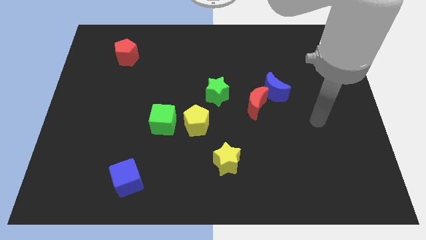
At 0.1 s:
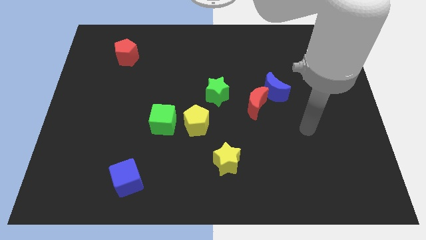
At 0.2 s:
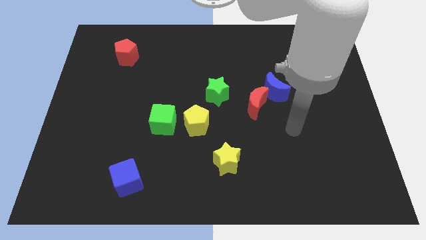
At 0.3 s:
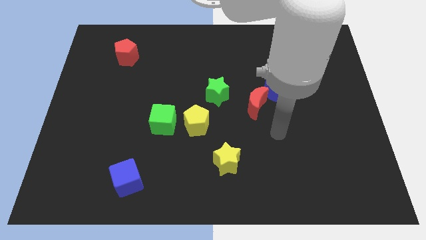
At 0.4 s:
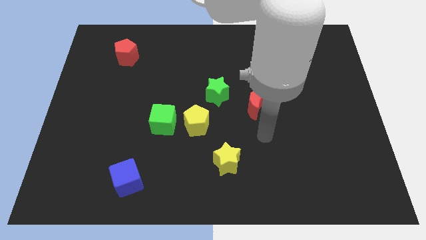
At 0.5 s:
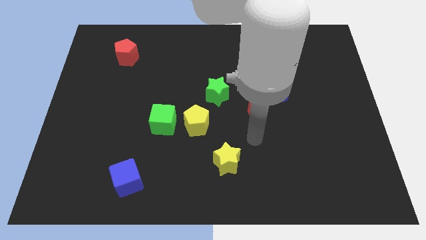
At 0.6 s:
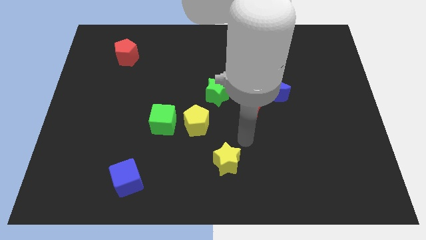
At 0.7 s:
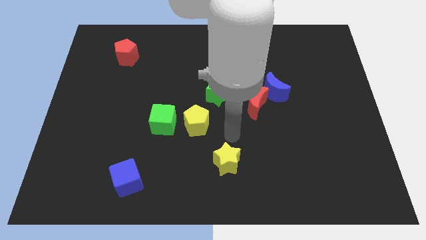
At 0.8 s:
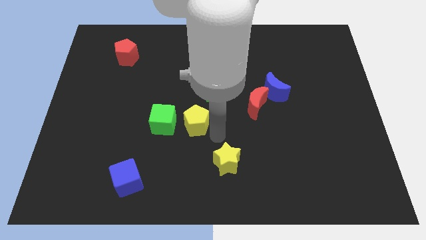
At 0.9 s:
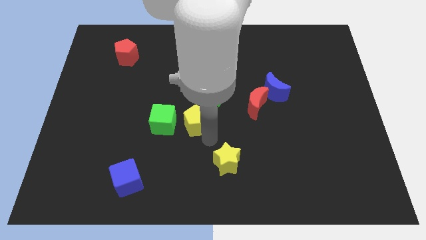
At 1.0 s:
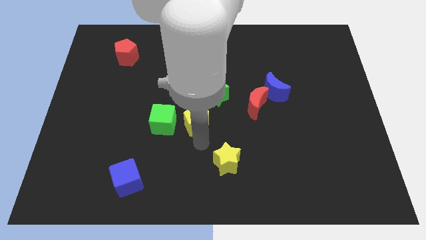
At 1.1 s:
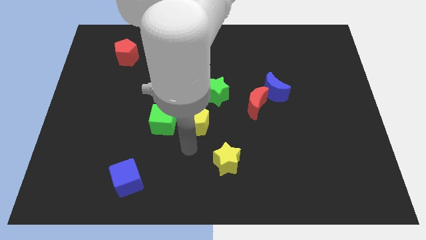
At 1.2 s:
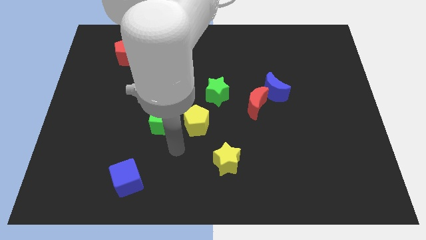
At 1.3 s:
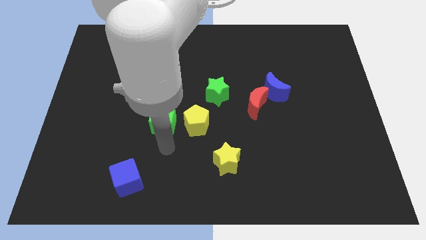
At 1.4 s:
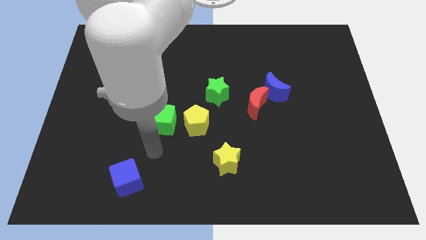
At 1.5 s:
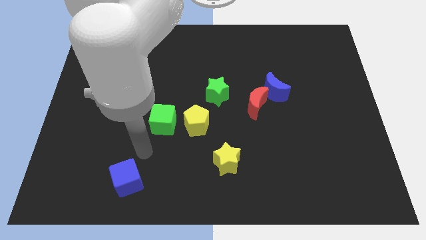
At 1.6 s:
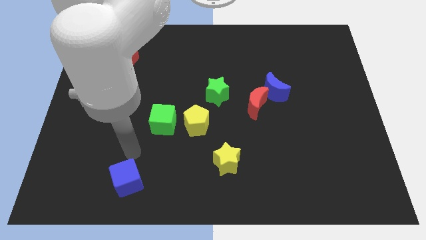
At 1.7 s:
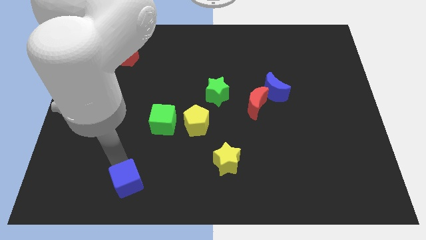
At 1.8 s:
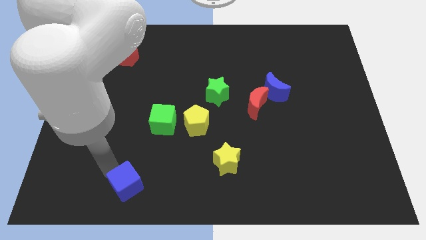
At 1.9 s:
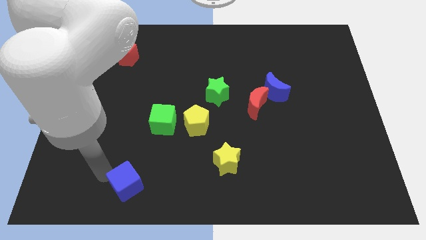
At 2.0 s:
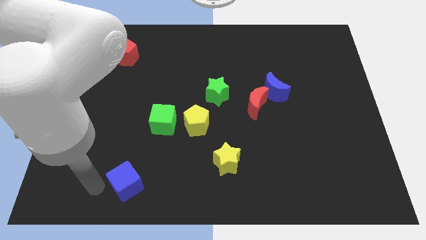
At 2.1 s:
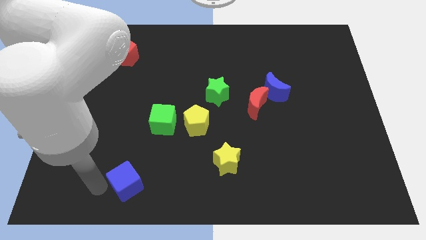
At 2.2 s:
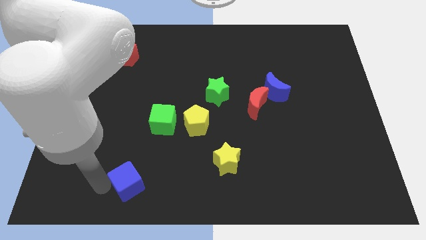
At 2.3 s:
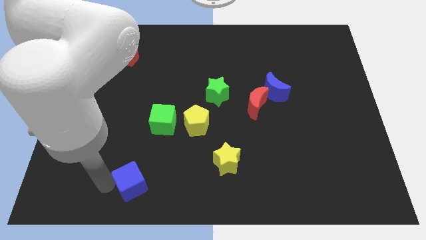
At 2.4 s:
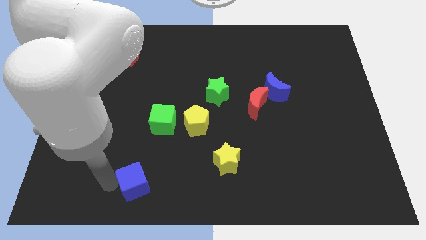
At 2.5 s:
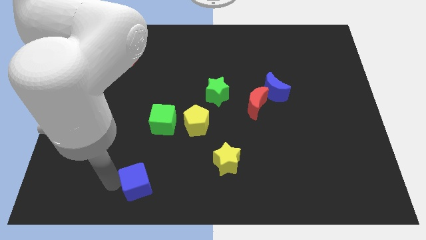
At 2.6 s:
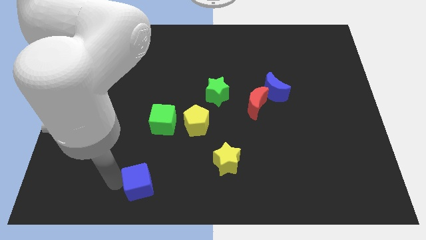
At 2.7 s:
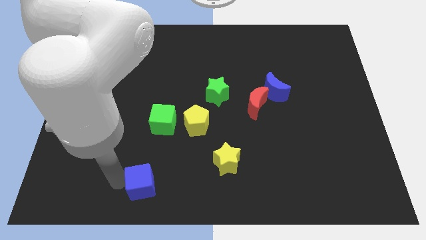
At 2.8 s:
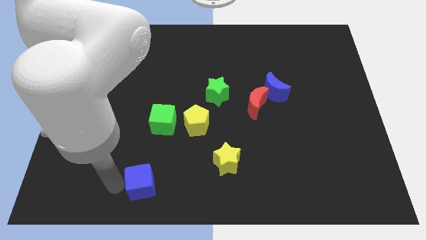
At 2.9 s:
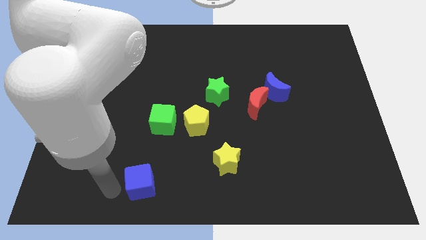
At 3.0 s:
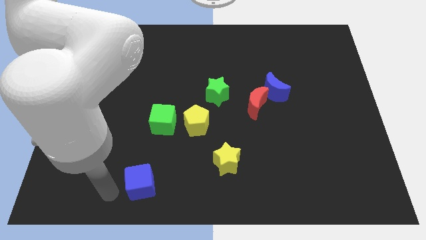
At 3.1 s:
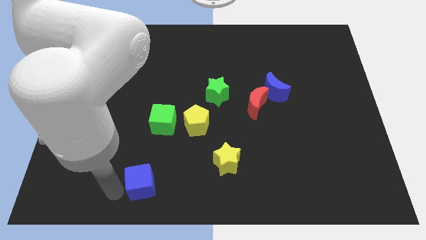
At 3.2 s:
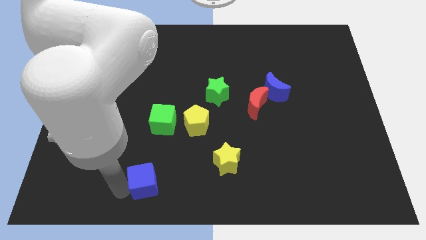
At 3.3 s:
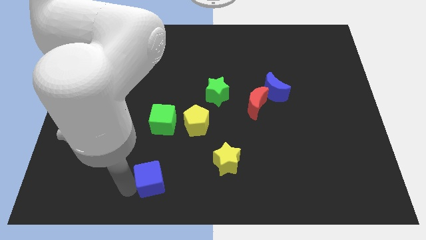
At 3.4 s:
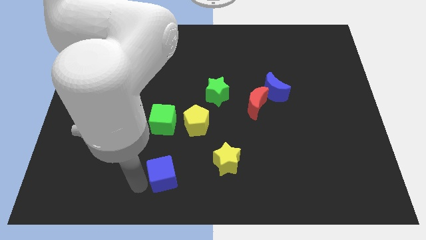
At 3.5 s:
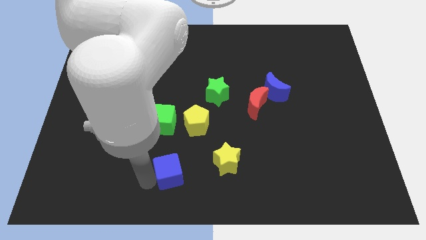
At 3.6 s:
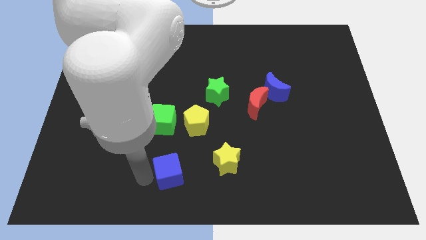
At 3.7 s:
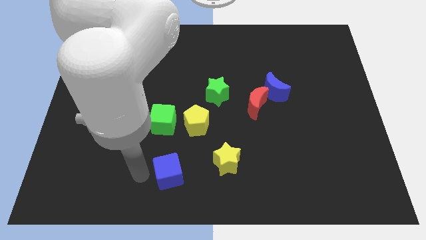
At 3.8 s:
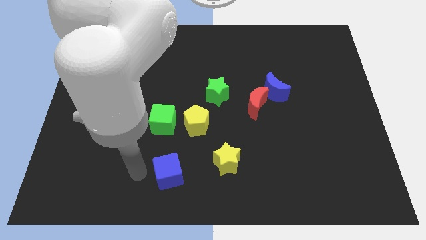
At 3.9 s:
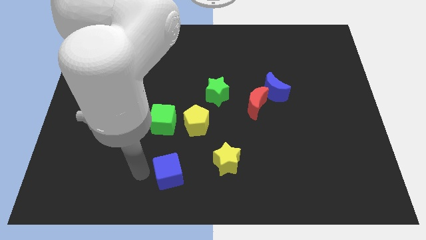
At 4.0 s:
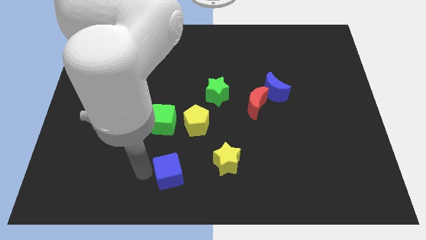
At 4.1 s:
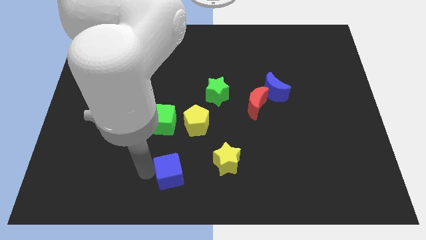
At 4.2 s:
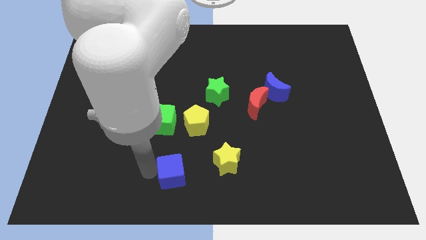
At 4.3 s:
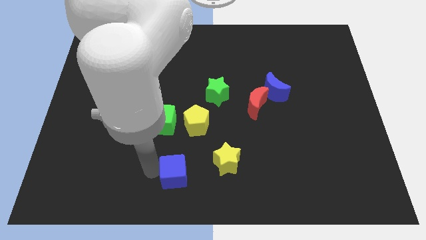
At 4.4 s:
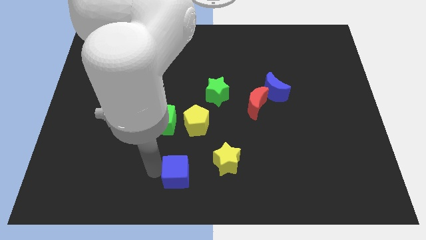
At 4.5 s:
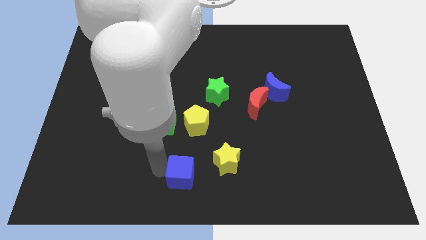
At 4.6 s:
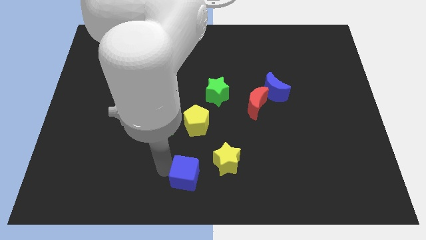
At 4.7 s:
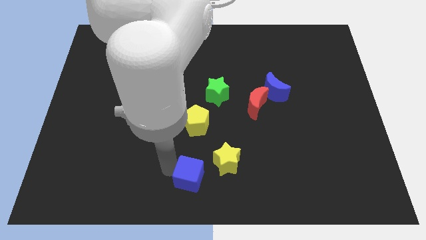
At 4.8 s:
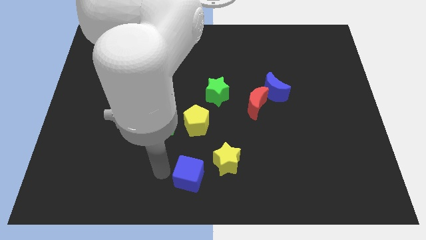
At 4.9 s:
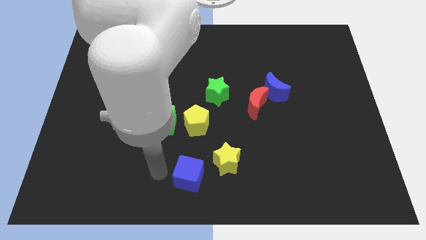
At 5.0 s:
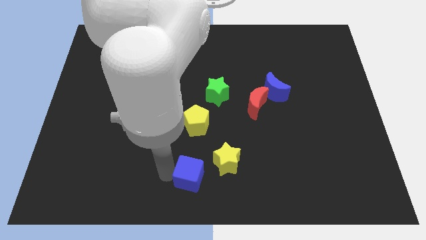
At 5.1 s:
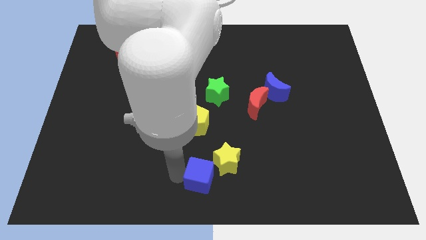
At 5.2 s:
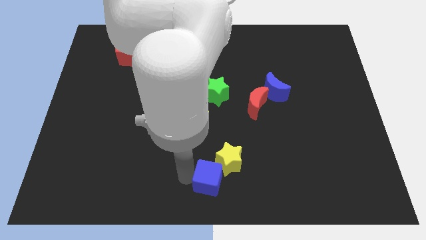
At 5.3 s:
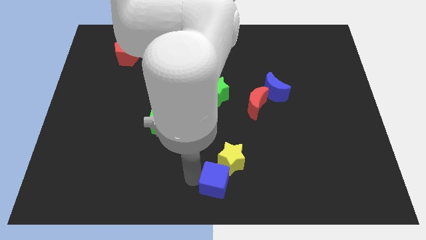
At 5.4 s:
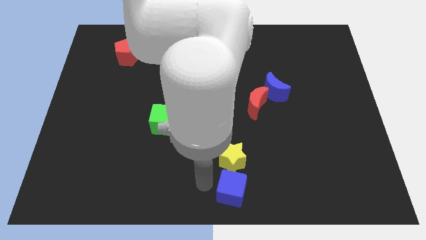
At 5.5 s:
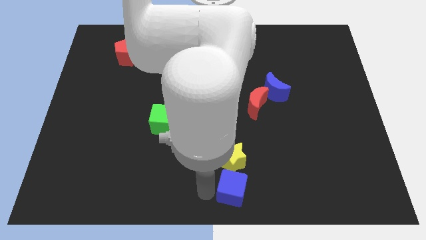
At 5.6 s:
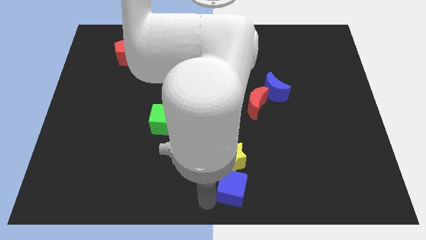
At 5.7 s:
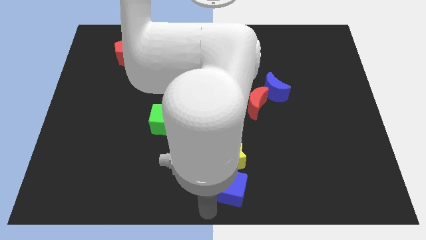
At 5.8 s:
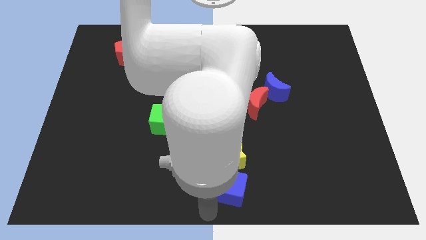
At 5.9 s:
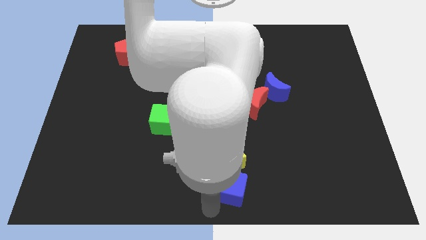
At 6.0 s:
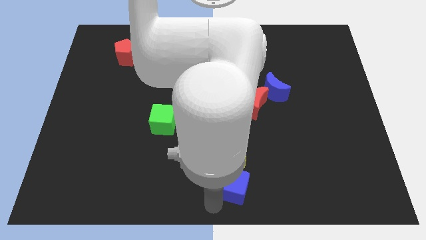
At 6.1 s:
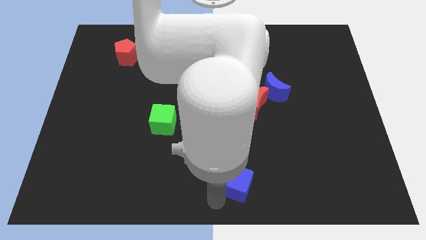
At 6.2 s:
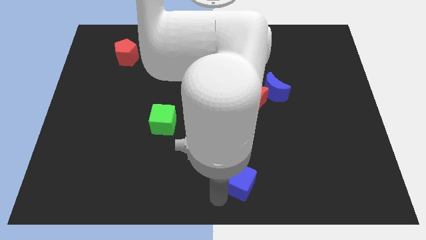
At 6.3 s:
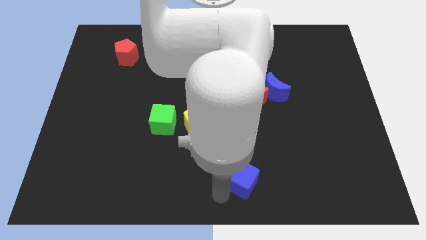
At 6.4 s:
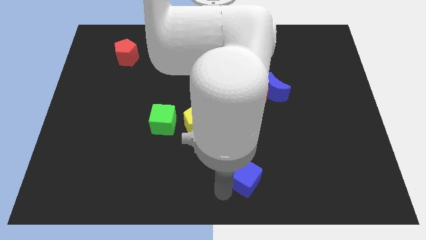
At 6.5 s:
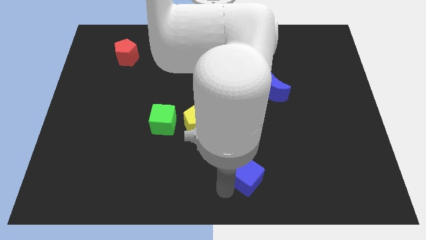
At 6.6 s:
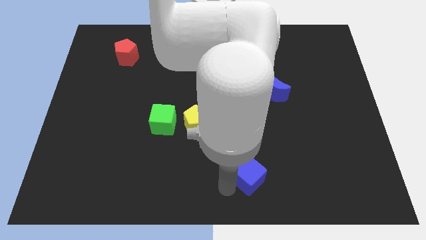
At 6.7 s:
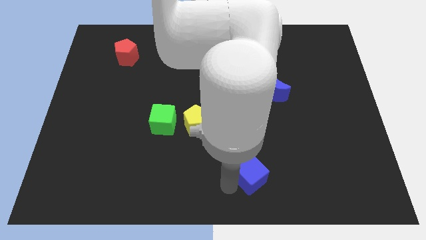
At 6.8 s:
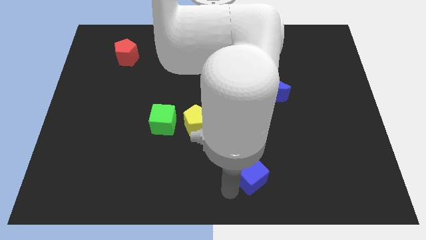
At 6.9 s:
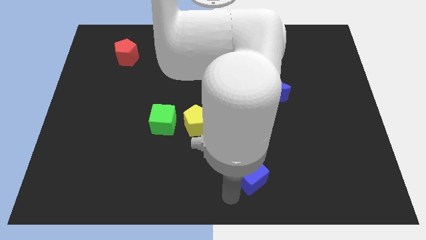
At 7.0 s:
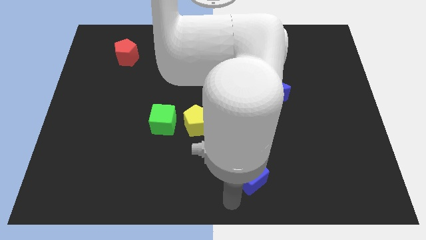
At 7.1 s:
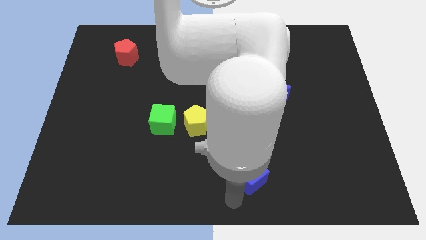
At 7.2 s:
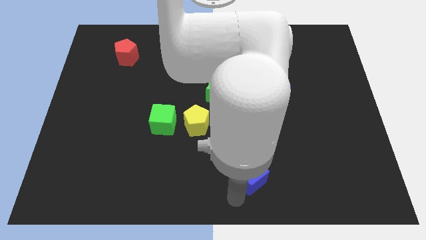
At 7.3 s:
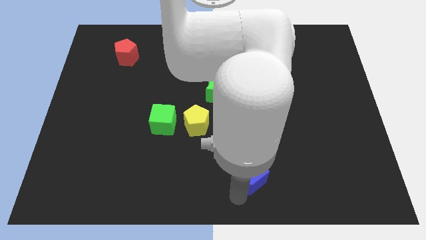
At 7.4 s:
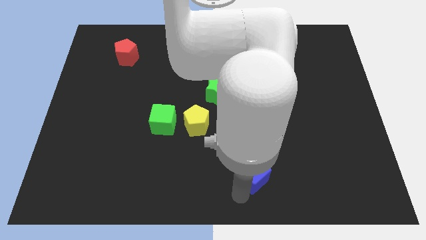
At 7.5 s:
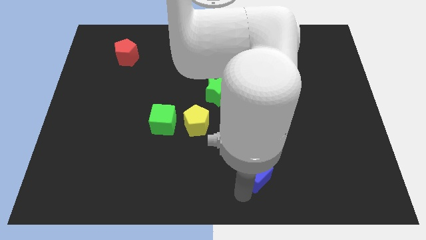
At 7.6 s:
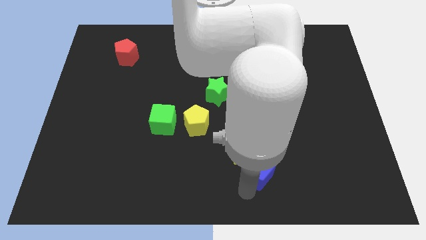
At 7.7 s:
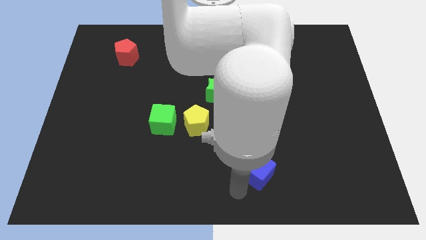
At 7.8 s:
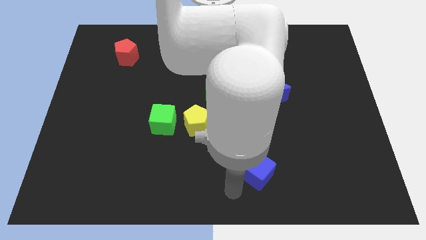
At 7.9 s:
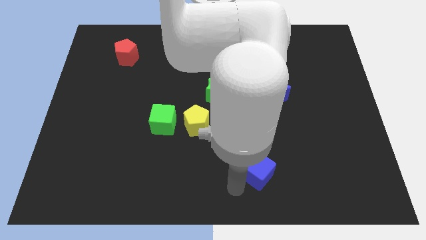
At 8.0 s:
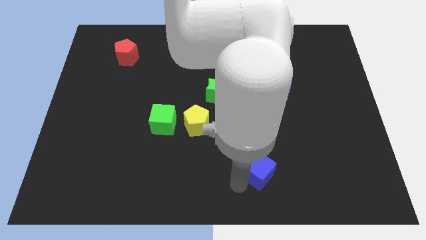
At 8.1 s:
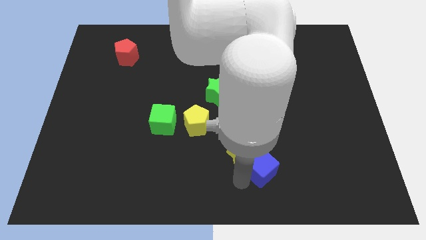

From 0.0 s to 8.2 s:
put the blue cube to the right side of the yellow star
